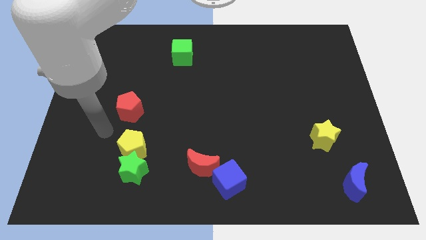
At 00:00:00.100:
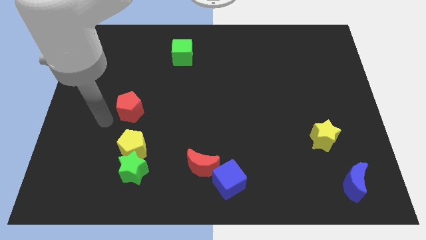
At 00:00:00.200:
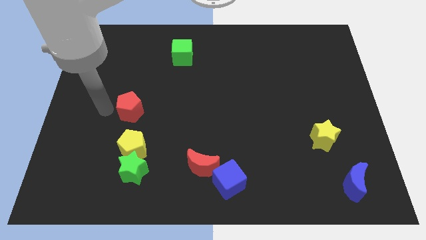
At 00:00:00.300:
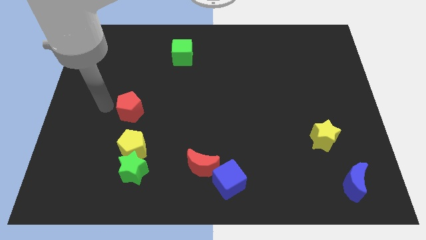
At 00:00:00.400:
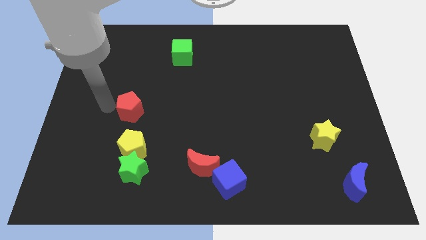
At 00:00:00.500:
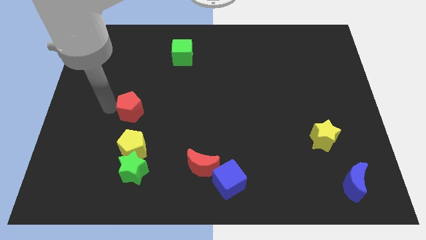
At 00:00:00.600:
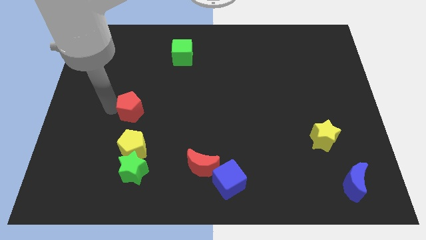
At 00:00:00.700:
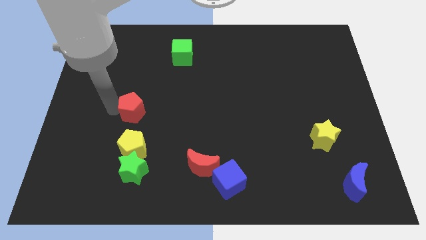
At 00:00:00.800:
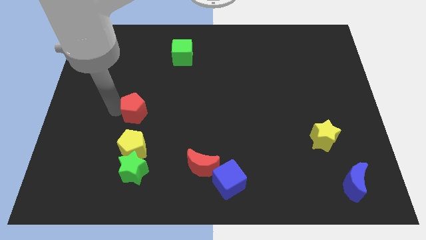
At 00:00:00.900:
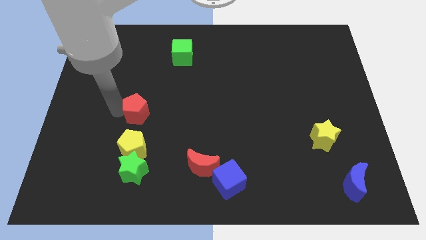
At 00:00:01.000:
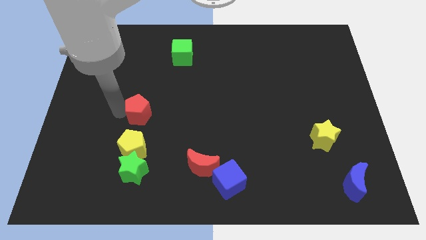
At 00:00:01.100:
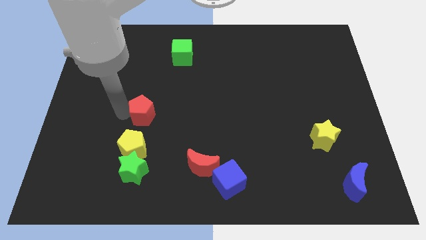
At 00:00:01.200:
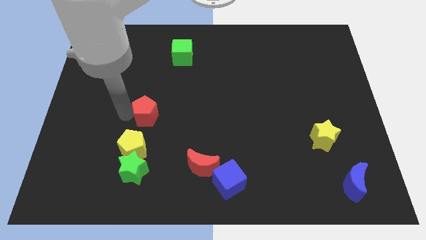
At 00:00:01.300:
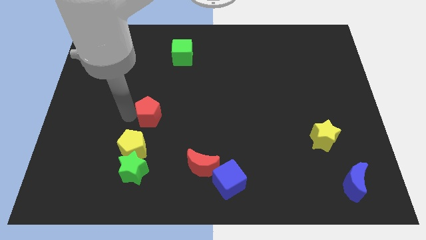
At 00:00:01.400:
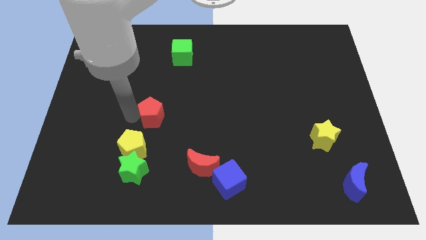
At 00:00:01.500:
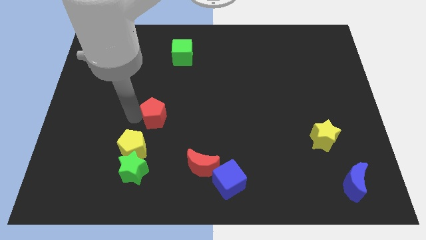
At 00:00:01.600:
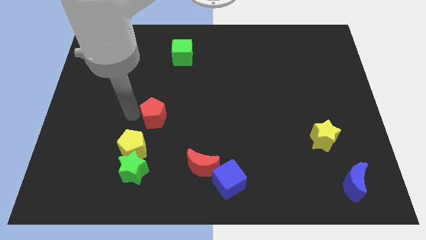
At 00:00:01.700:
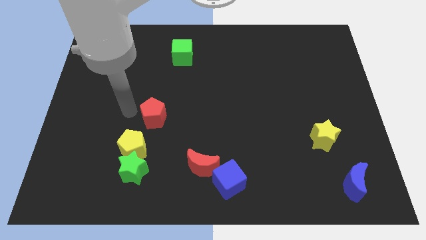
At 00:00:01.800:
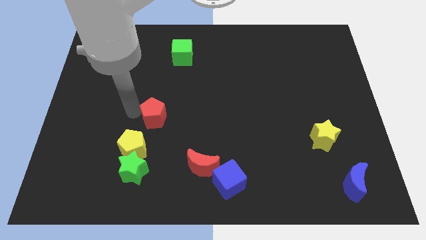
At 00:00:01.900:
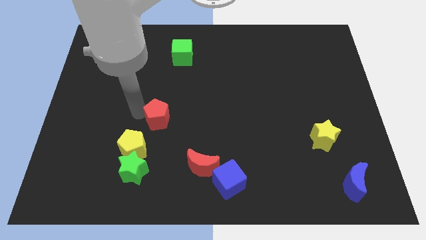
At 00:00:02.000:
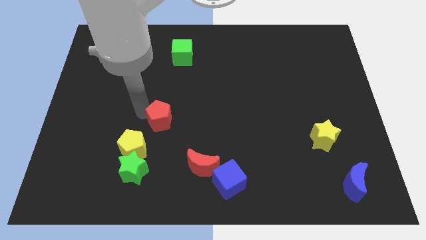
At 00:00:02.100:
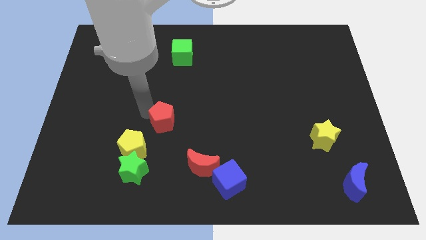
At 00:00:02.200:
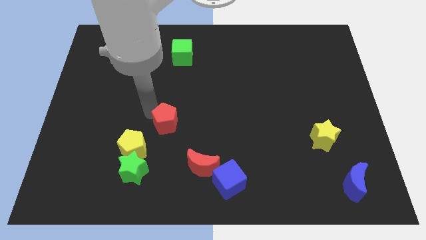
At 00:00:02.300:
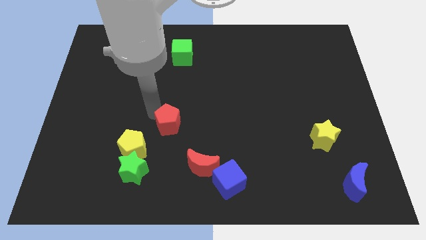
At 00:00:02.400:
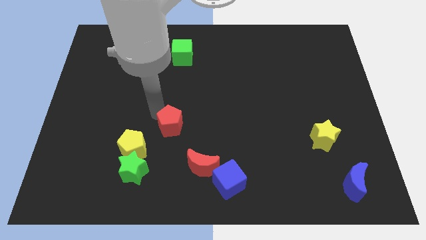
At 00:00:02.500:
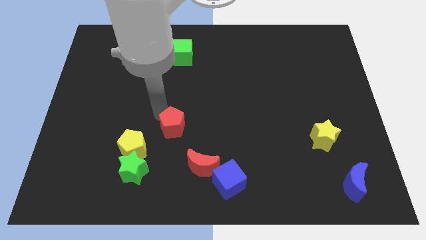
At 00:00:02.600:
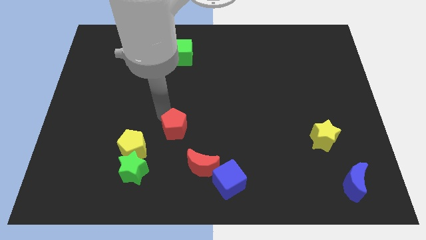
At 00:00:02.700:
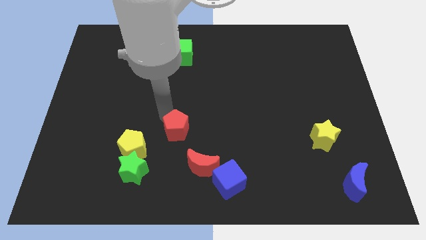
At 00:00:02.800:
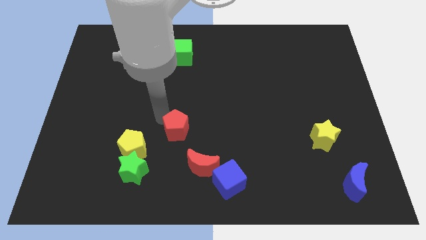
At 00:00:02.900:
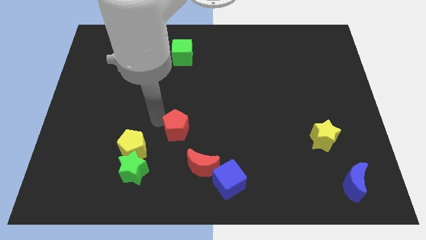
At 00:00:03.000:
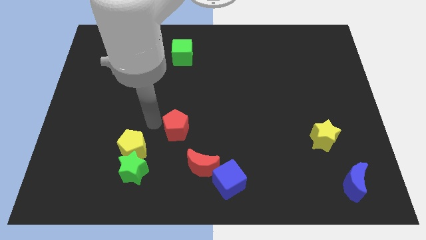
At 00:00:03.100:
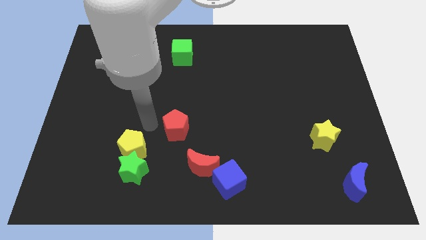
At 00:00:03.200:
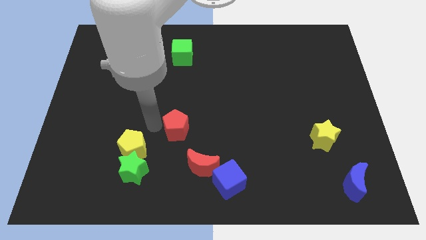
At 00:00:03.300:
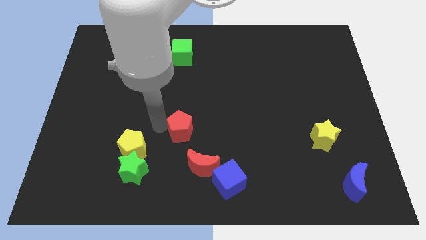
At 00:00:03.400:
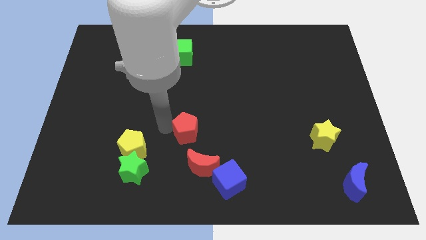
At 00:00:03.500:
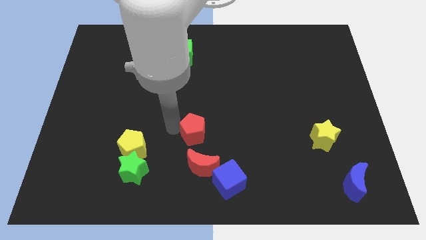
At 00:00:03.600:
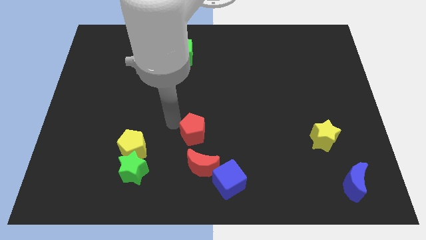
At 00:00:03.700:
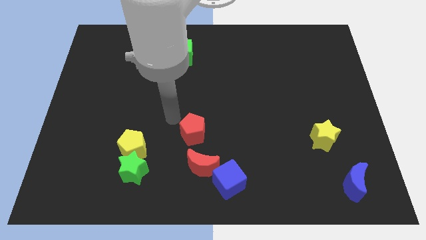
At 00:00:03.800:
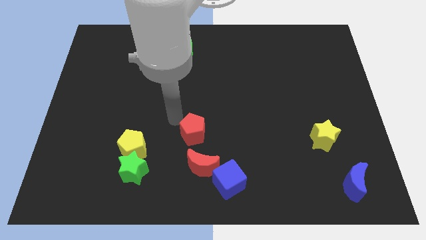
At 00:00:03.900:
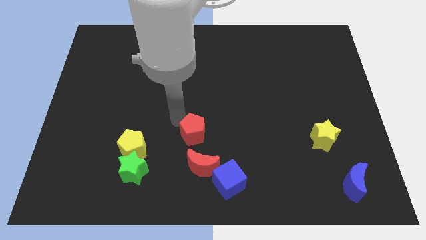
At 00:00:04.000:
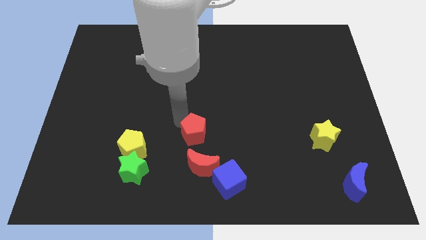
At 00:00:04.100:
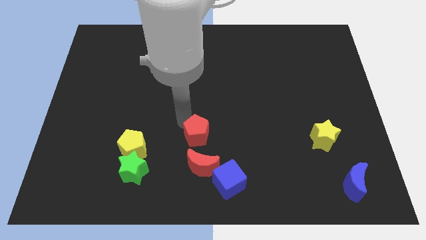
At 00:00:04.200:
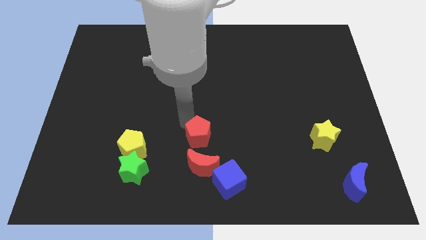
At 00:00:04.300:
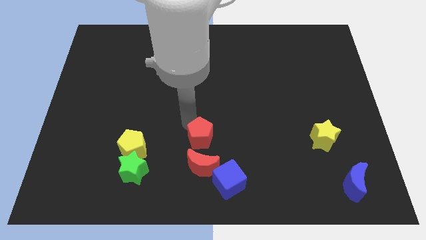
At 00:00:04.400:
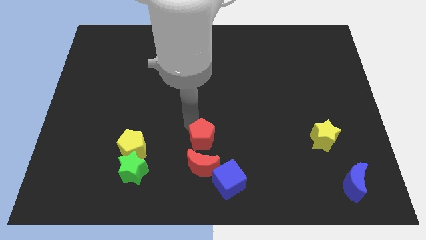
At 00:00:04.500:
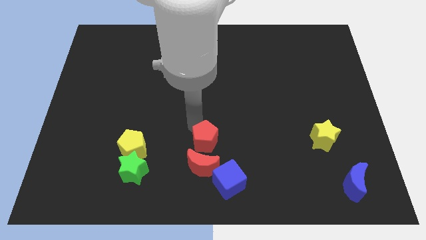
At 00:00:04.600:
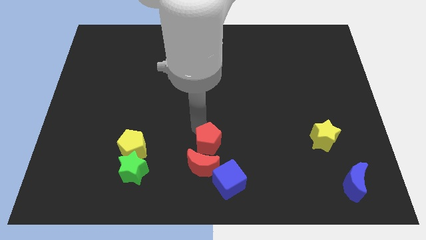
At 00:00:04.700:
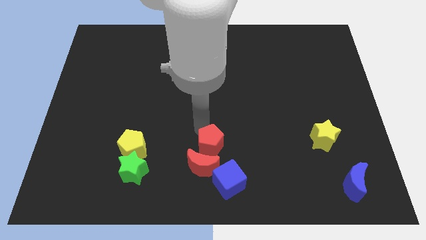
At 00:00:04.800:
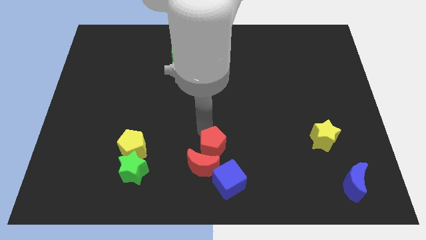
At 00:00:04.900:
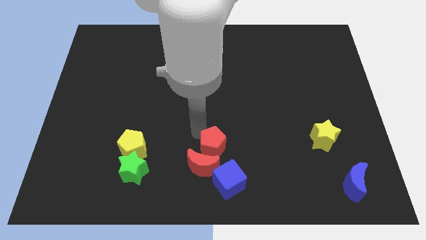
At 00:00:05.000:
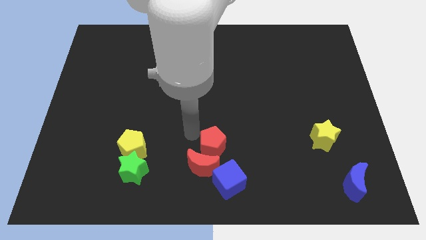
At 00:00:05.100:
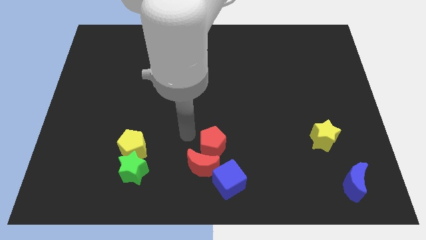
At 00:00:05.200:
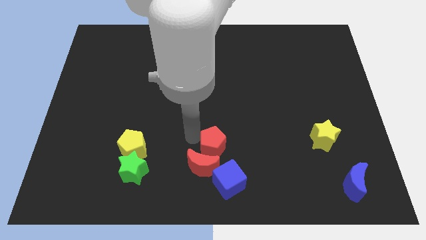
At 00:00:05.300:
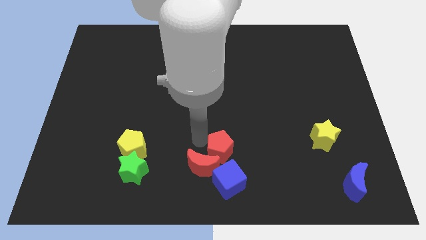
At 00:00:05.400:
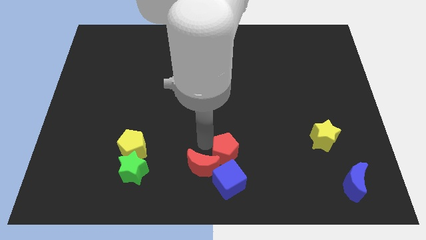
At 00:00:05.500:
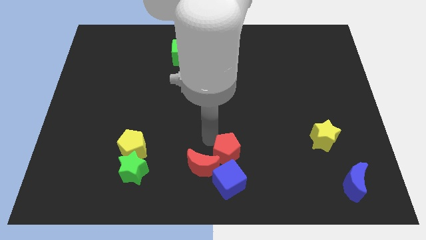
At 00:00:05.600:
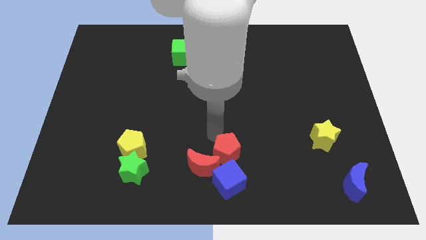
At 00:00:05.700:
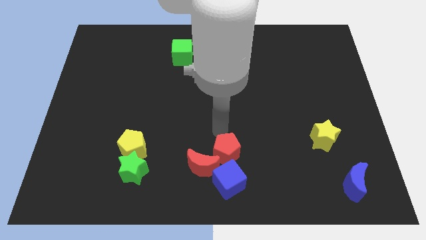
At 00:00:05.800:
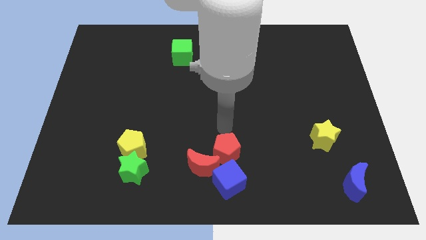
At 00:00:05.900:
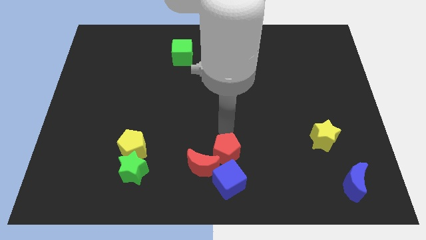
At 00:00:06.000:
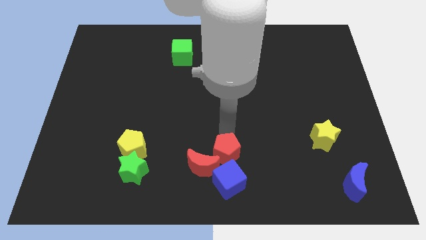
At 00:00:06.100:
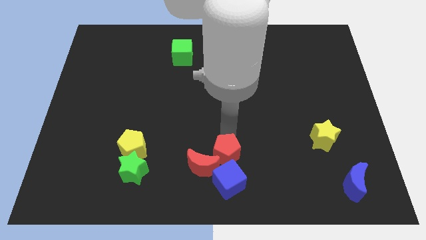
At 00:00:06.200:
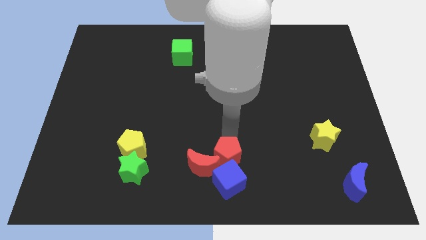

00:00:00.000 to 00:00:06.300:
put the red pentagon towards the blue cube

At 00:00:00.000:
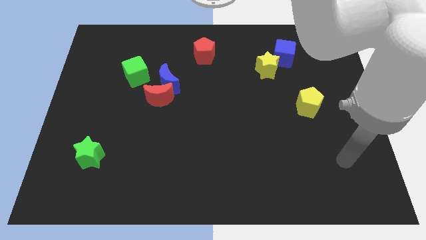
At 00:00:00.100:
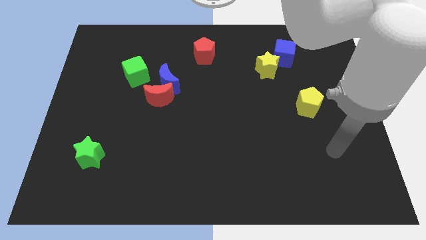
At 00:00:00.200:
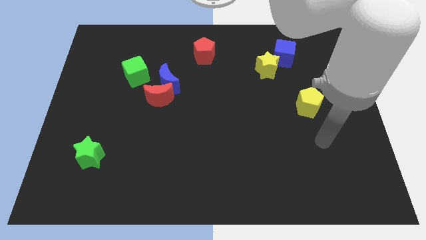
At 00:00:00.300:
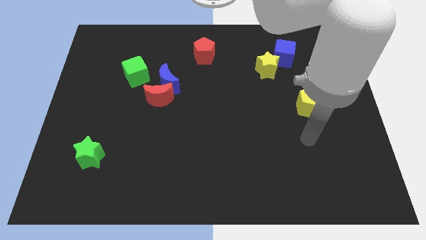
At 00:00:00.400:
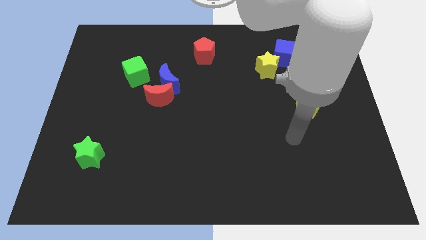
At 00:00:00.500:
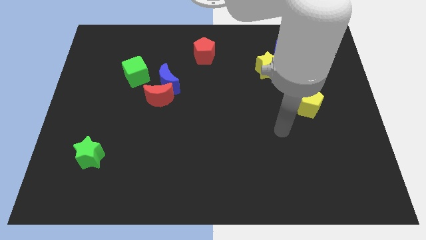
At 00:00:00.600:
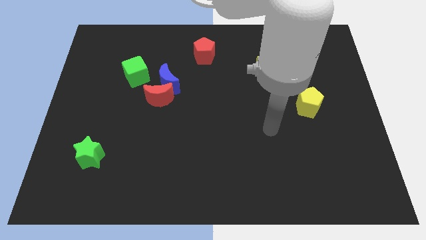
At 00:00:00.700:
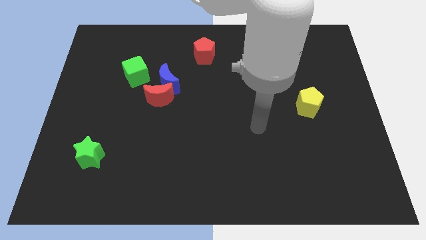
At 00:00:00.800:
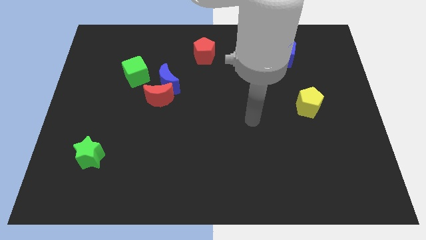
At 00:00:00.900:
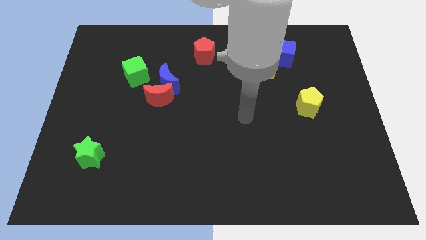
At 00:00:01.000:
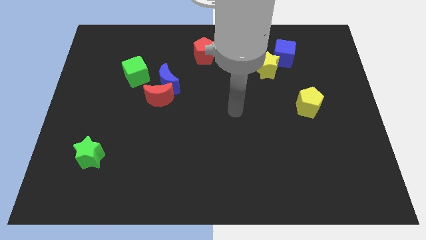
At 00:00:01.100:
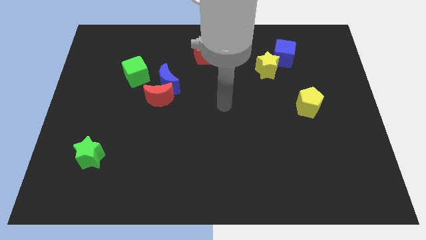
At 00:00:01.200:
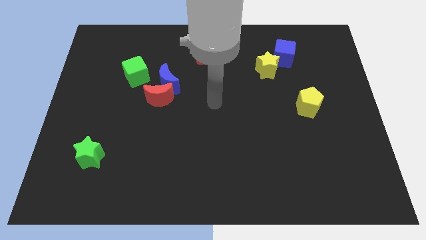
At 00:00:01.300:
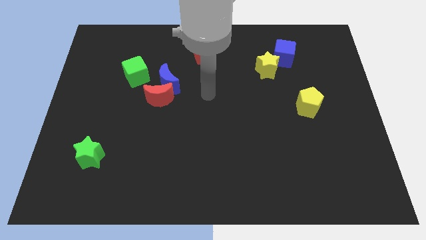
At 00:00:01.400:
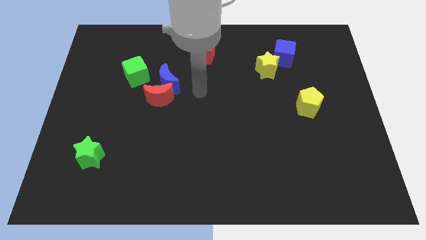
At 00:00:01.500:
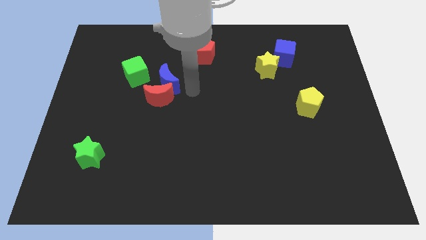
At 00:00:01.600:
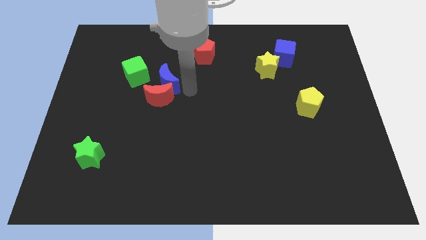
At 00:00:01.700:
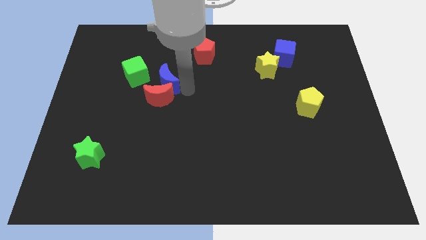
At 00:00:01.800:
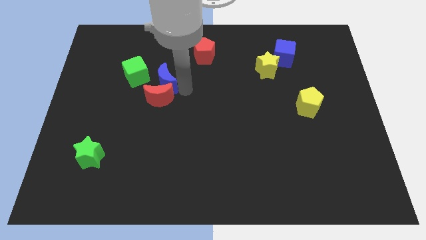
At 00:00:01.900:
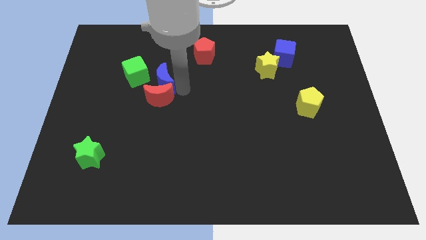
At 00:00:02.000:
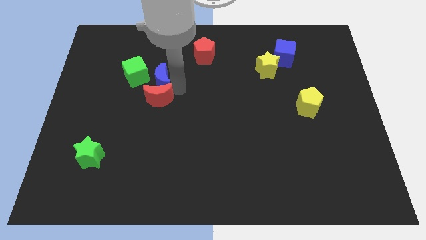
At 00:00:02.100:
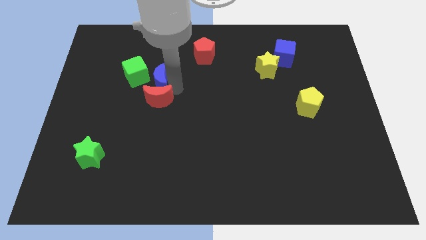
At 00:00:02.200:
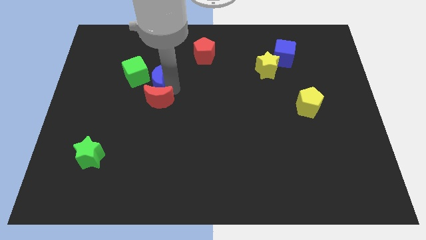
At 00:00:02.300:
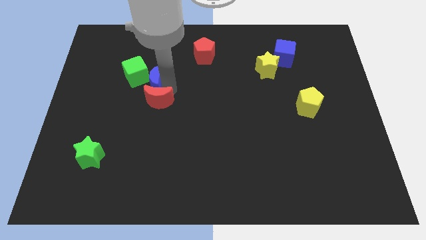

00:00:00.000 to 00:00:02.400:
slide the blue moon towards the green cube
